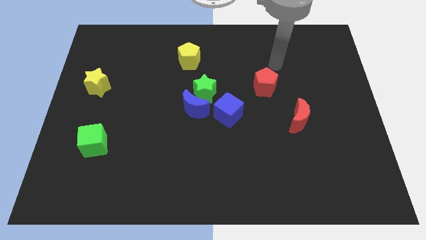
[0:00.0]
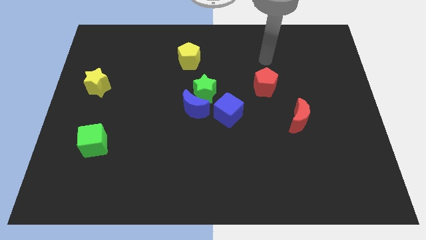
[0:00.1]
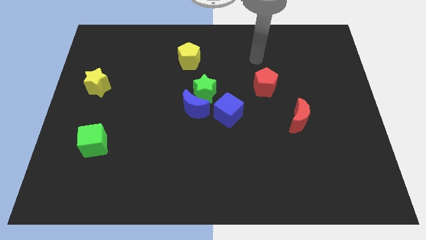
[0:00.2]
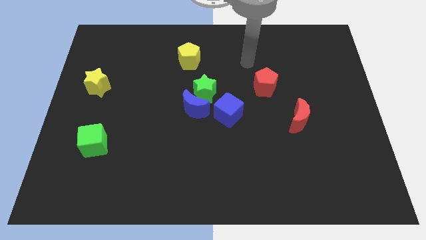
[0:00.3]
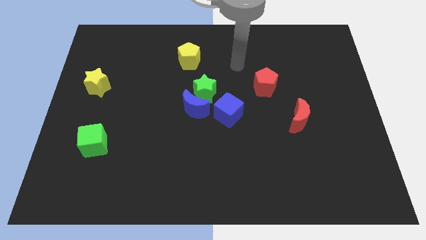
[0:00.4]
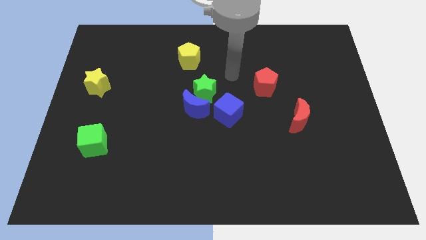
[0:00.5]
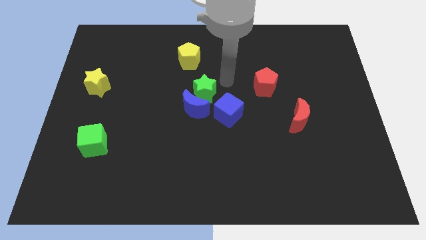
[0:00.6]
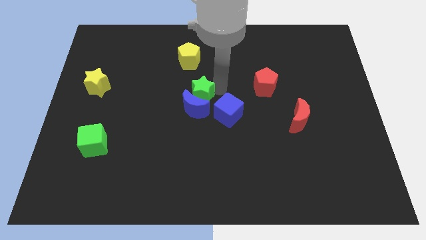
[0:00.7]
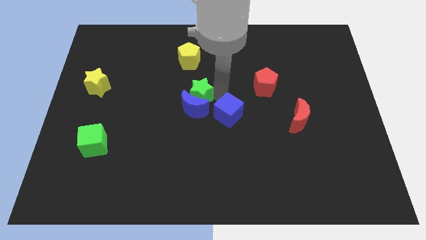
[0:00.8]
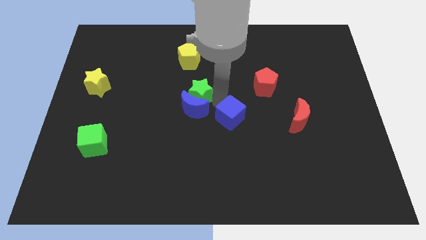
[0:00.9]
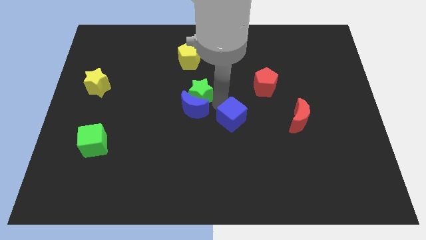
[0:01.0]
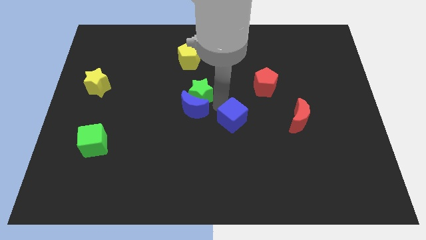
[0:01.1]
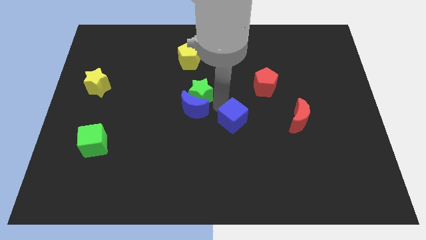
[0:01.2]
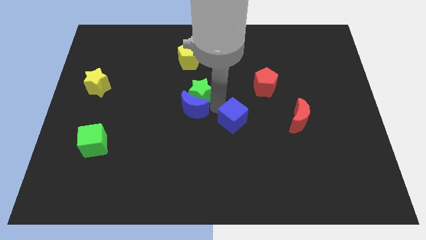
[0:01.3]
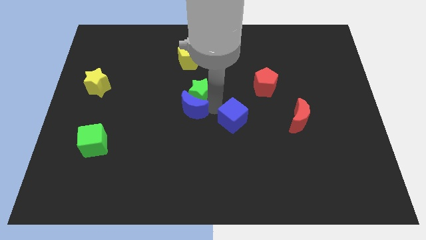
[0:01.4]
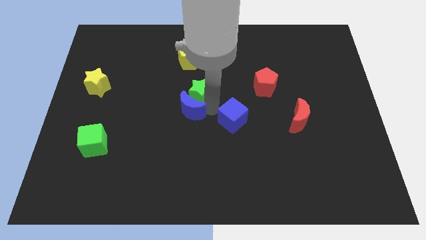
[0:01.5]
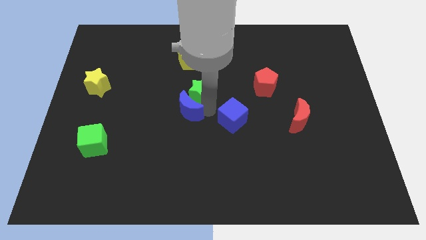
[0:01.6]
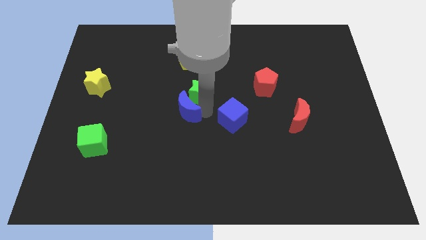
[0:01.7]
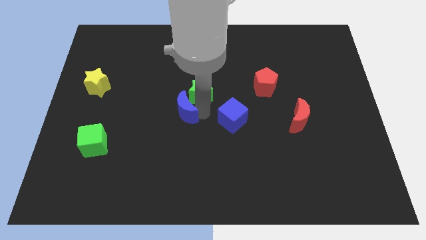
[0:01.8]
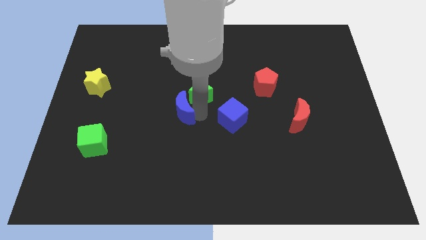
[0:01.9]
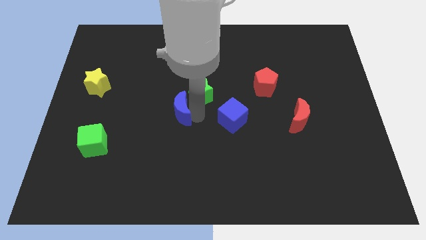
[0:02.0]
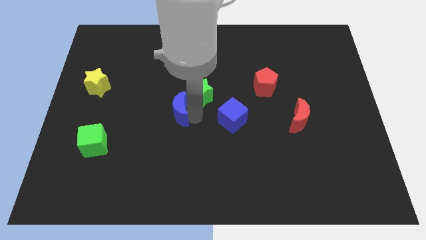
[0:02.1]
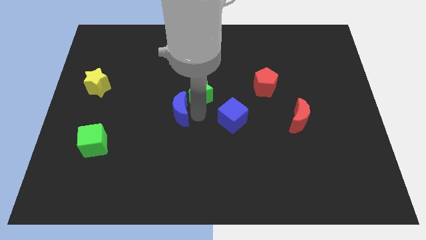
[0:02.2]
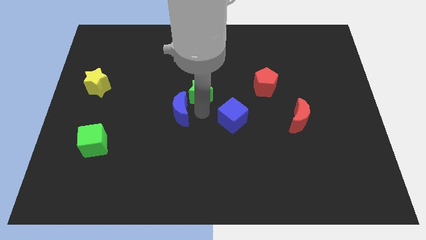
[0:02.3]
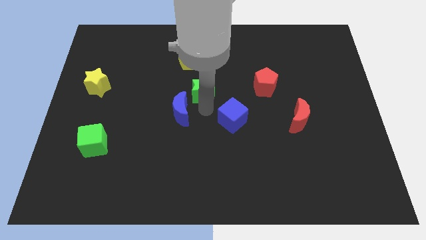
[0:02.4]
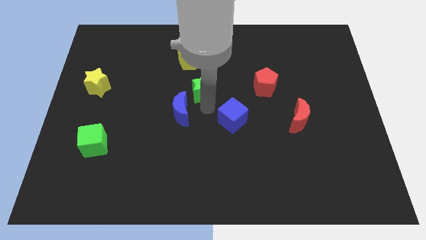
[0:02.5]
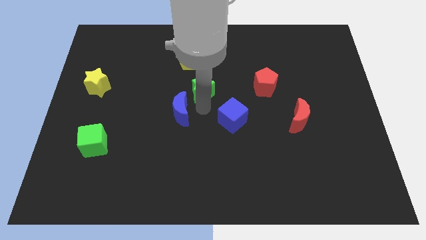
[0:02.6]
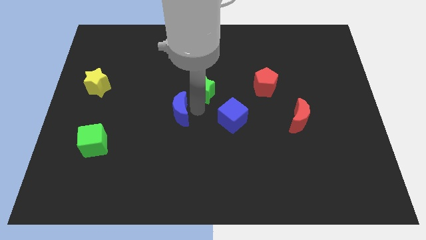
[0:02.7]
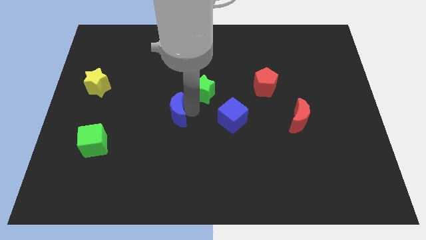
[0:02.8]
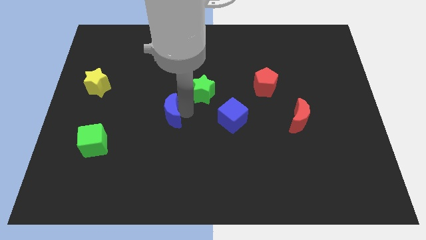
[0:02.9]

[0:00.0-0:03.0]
separate the blue moon from the green star and blue cube

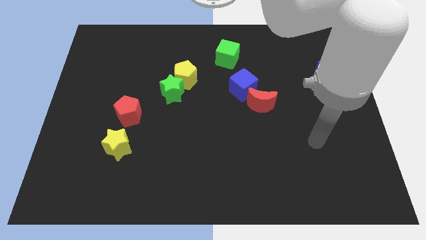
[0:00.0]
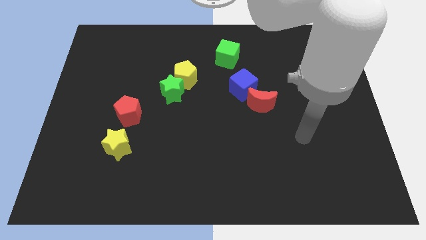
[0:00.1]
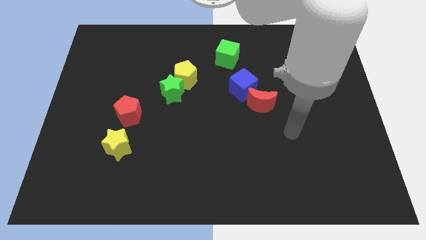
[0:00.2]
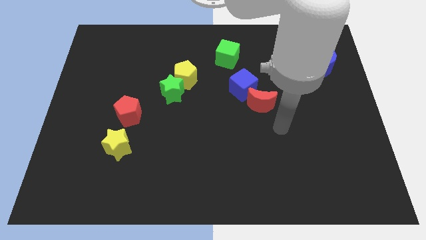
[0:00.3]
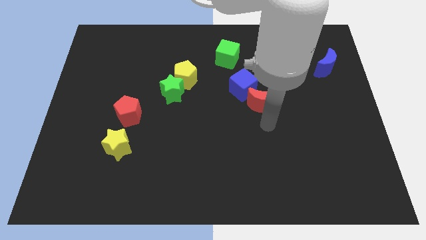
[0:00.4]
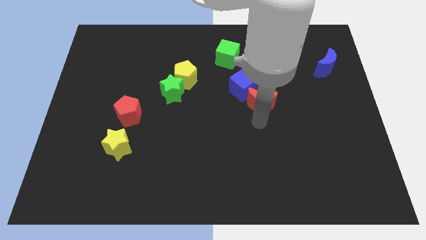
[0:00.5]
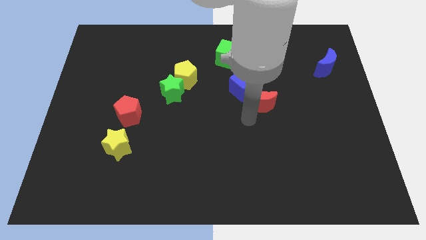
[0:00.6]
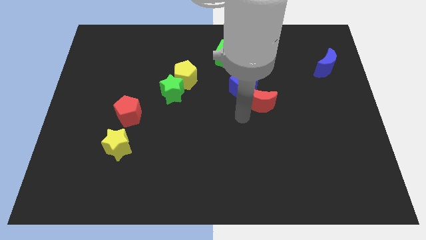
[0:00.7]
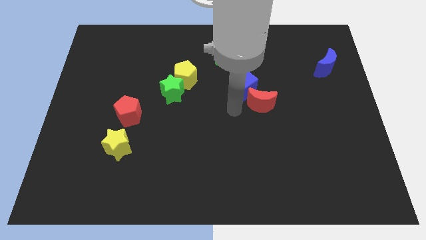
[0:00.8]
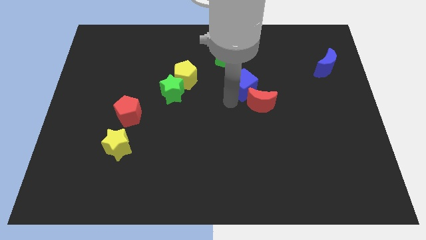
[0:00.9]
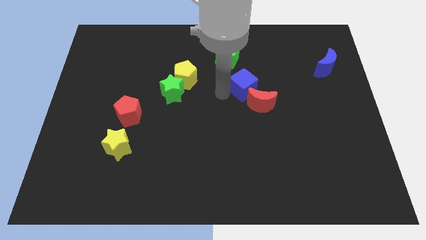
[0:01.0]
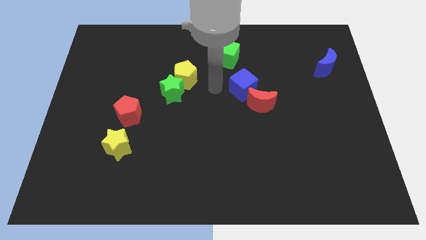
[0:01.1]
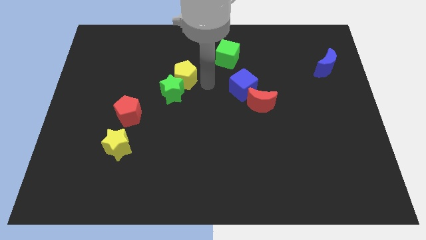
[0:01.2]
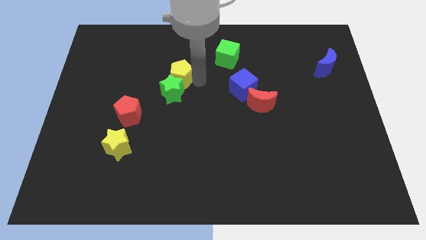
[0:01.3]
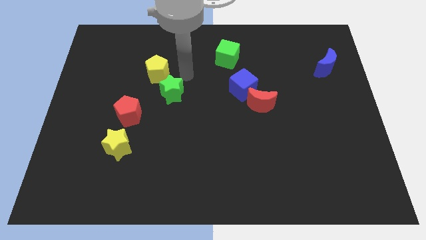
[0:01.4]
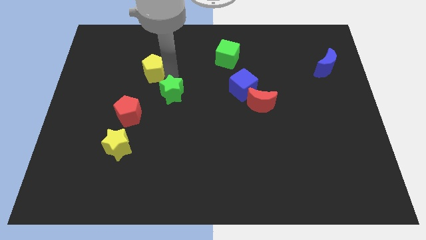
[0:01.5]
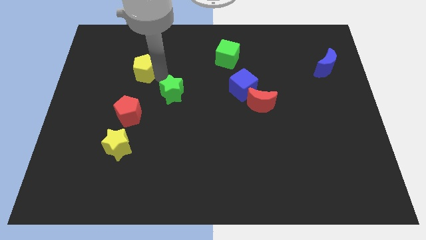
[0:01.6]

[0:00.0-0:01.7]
separate the green star from the yellow pentagon

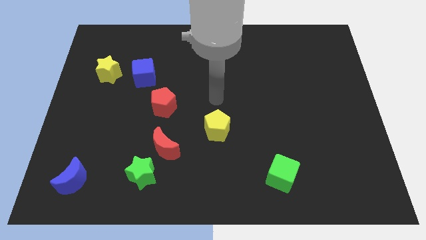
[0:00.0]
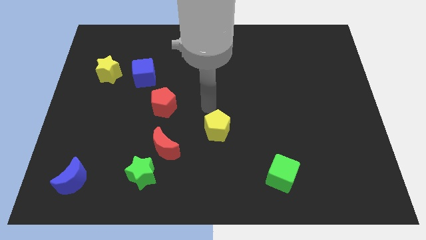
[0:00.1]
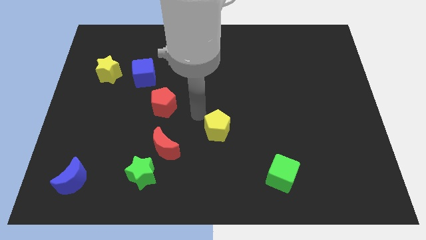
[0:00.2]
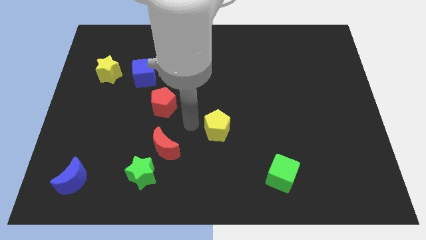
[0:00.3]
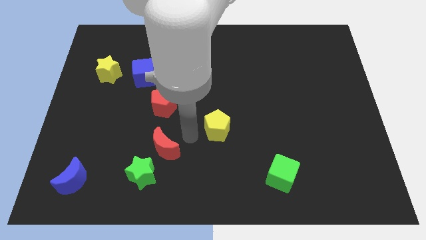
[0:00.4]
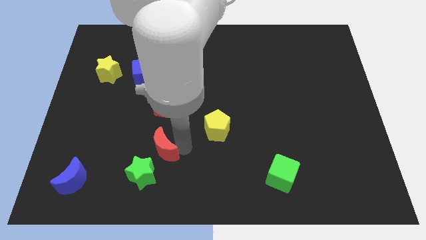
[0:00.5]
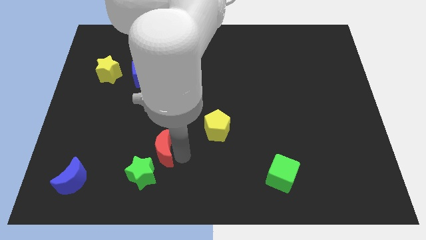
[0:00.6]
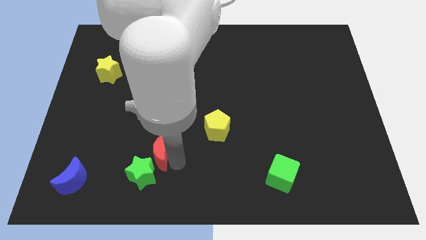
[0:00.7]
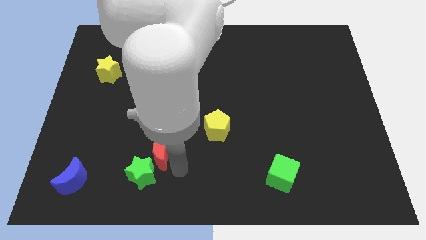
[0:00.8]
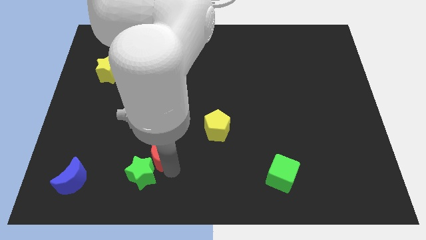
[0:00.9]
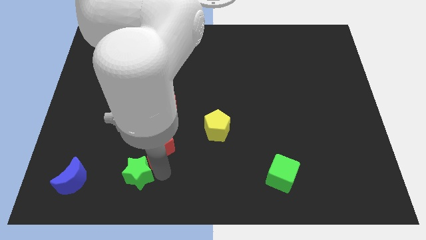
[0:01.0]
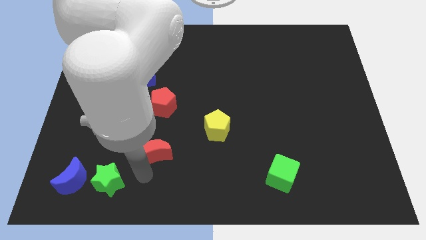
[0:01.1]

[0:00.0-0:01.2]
move the red moon away from the green star

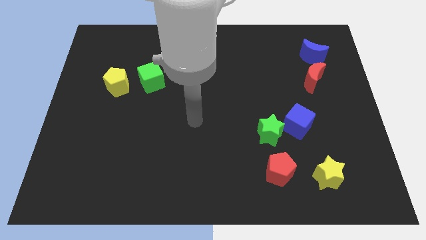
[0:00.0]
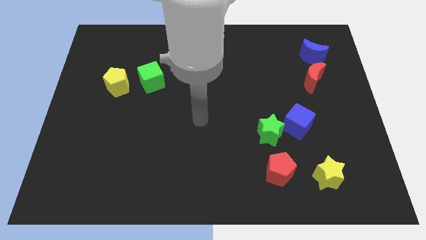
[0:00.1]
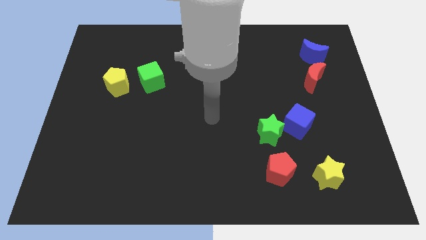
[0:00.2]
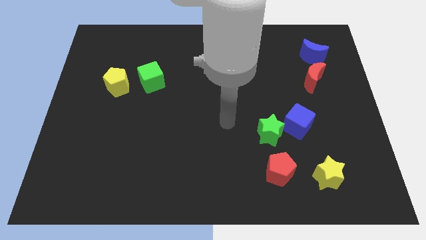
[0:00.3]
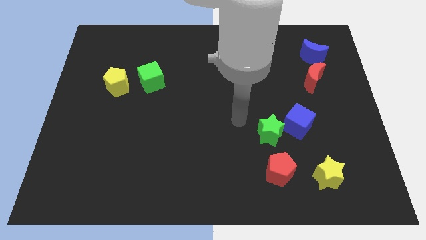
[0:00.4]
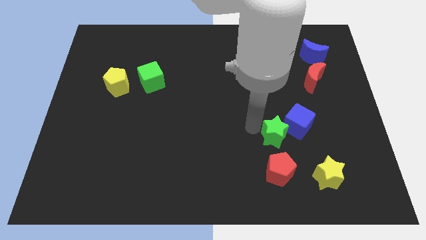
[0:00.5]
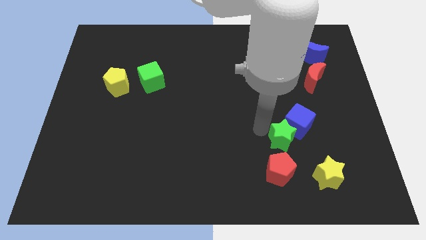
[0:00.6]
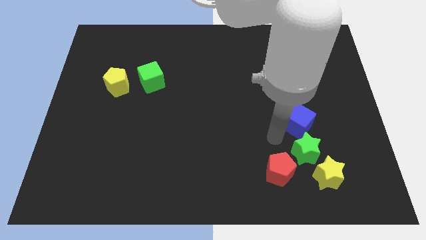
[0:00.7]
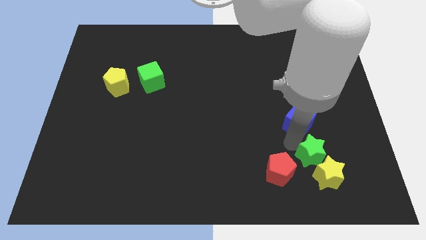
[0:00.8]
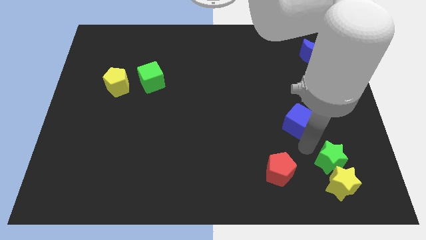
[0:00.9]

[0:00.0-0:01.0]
separate the blue cube from the green star

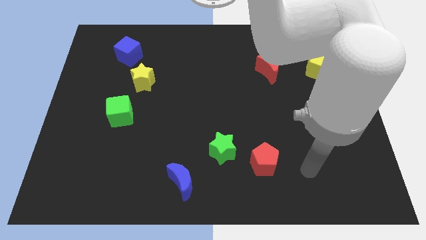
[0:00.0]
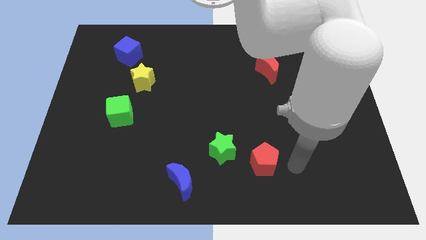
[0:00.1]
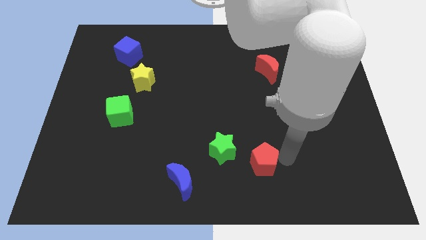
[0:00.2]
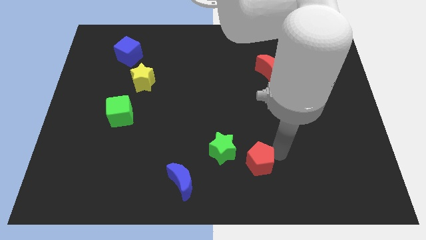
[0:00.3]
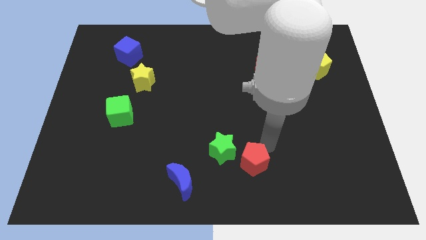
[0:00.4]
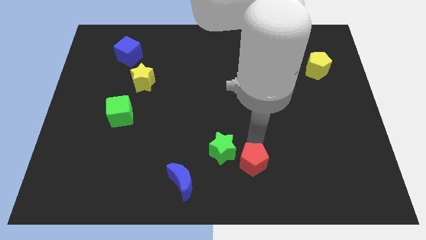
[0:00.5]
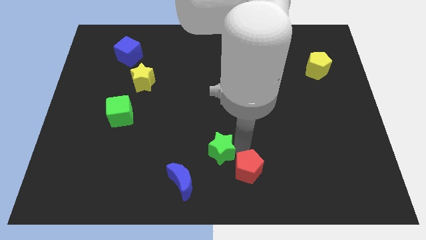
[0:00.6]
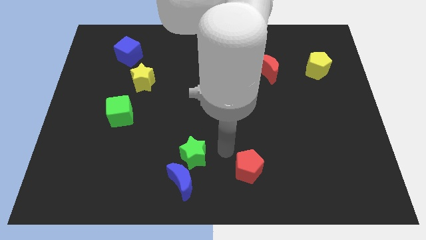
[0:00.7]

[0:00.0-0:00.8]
separate the red pentagon from the green star

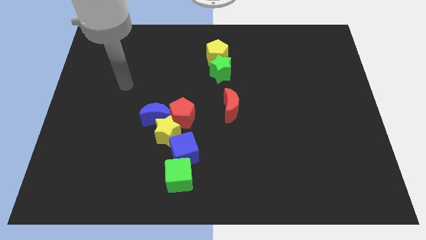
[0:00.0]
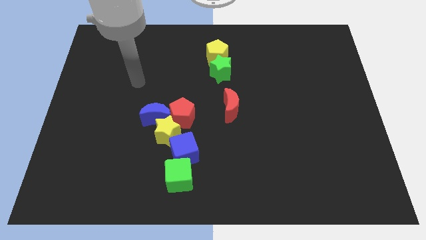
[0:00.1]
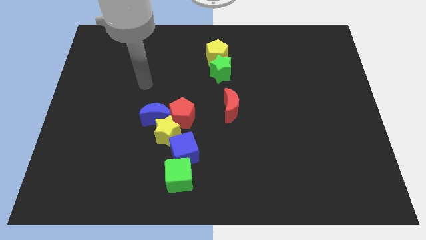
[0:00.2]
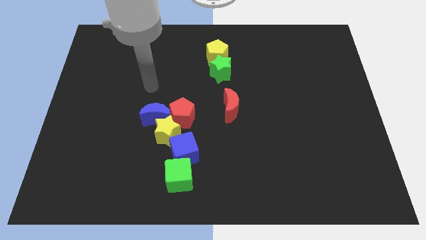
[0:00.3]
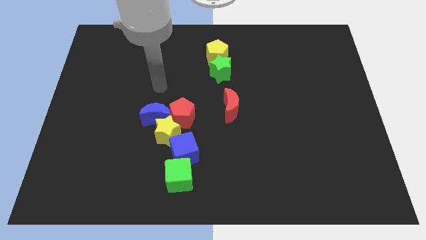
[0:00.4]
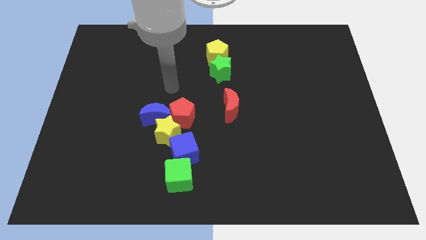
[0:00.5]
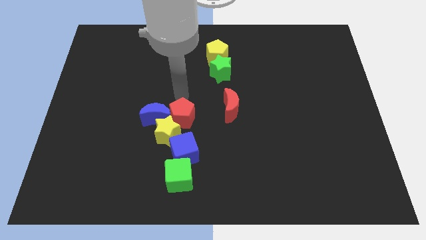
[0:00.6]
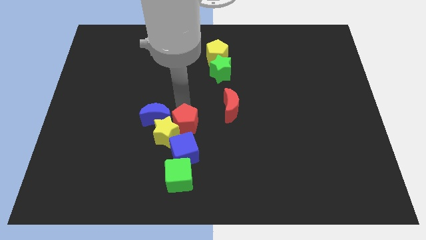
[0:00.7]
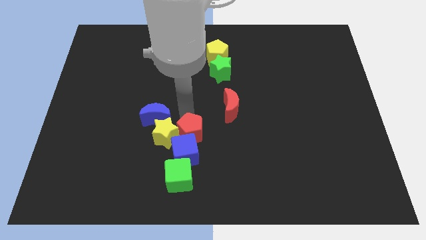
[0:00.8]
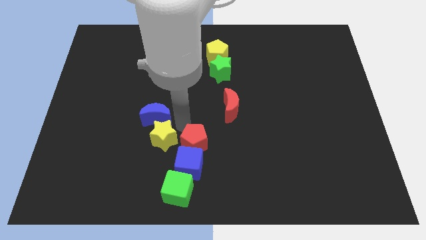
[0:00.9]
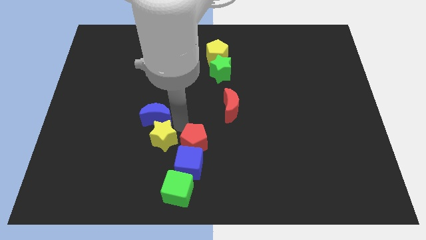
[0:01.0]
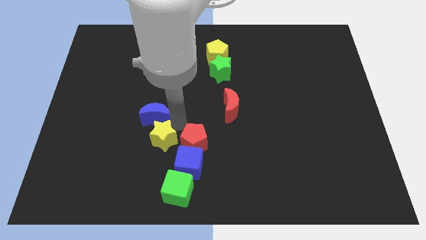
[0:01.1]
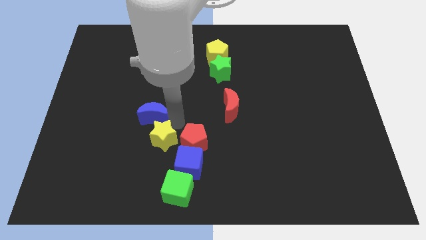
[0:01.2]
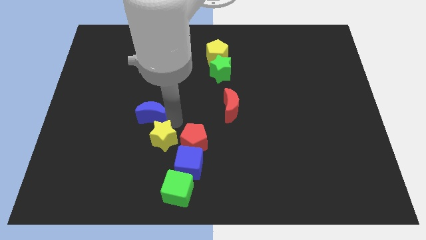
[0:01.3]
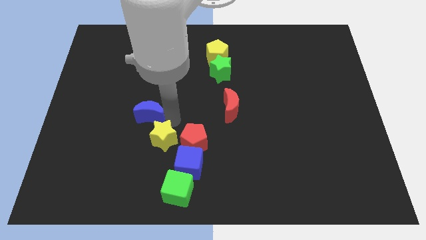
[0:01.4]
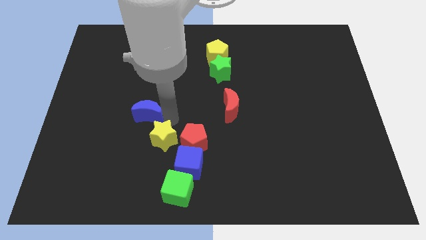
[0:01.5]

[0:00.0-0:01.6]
move the blue moon away from the yellow star and red pentagon
